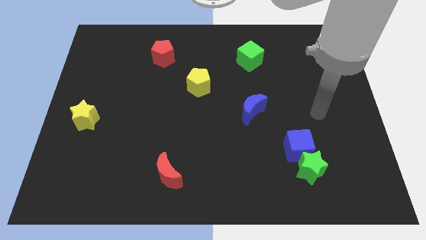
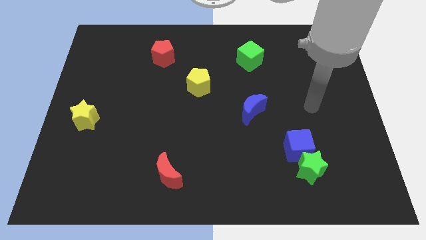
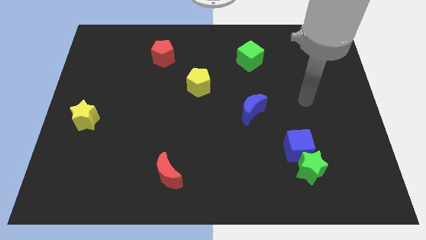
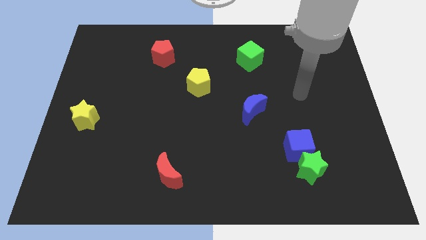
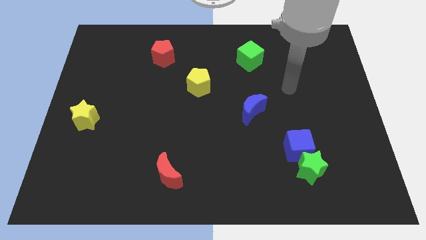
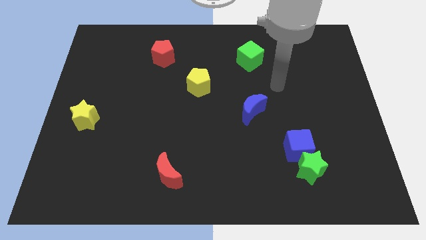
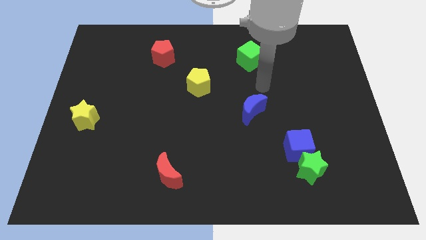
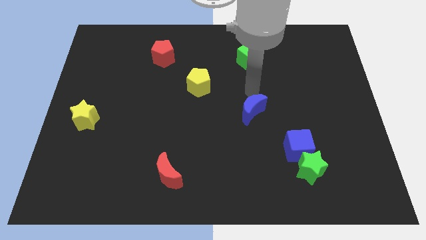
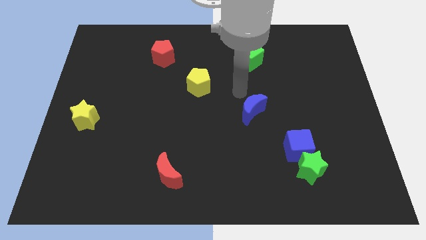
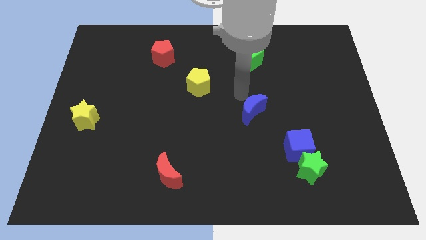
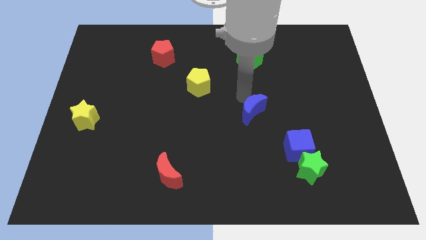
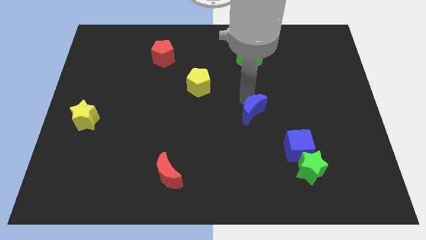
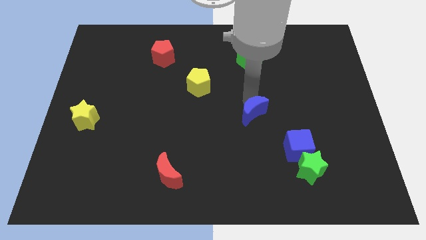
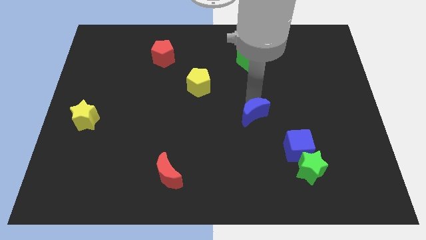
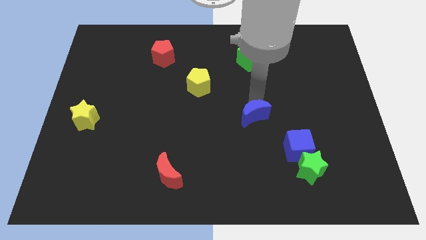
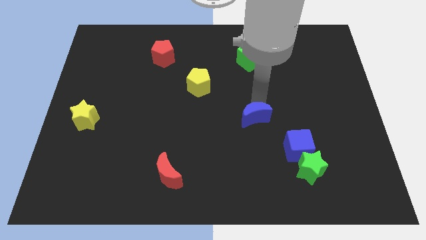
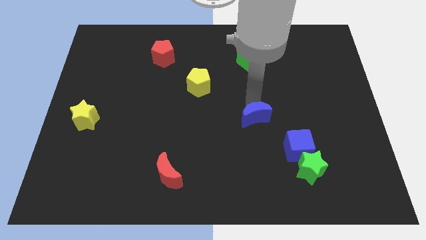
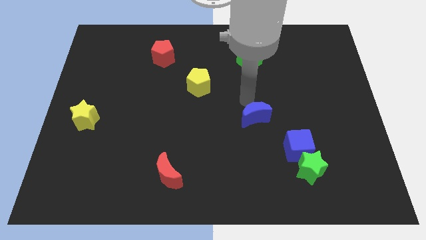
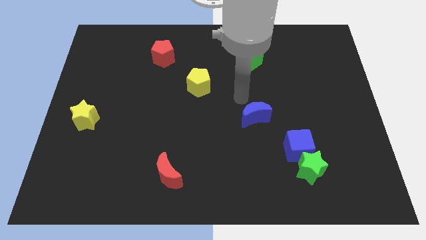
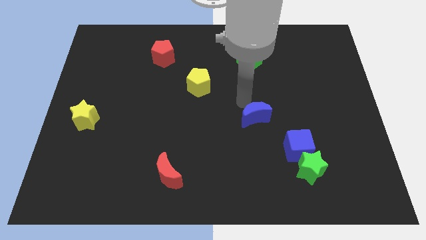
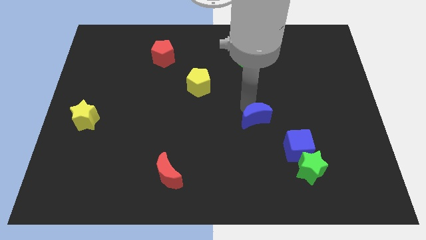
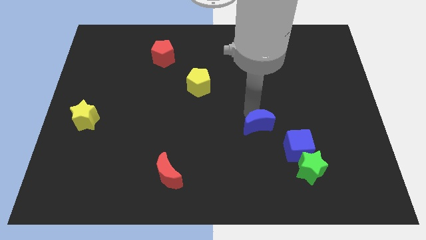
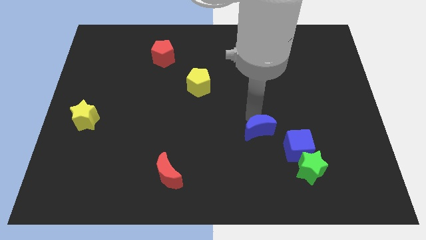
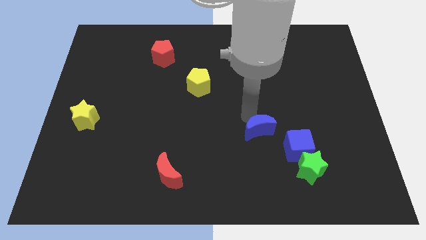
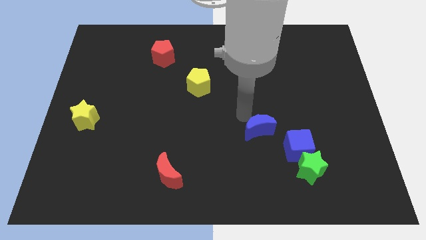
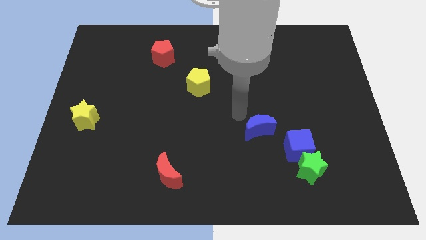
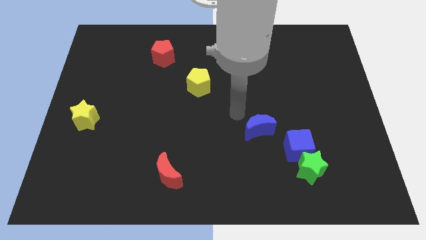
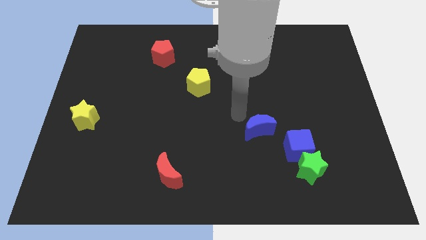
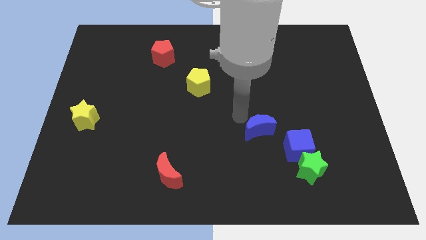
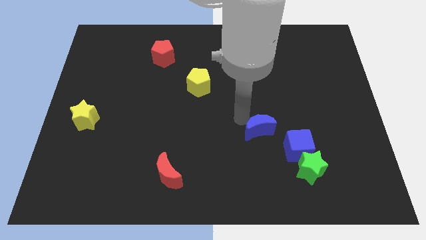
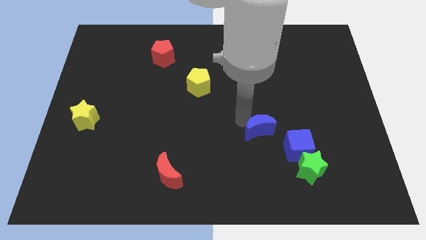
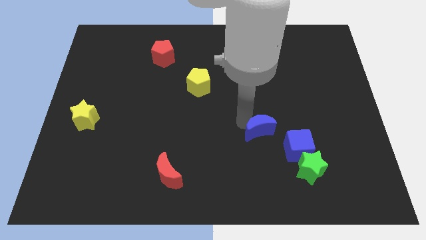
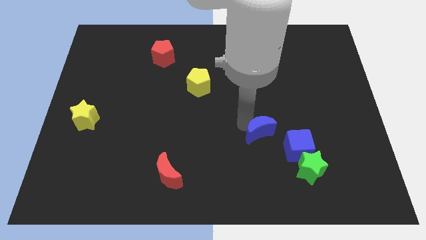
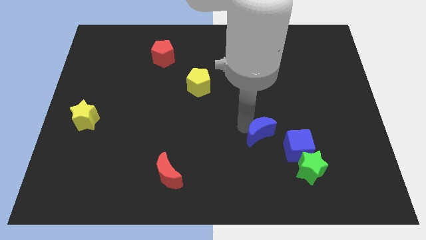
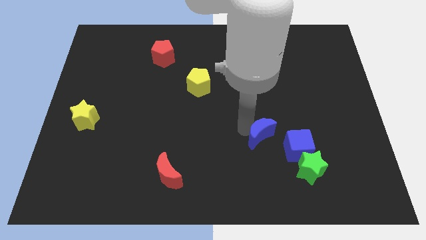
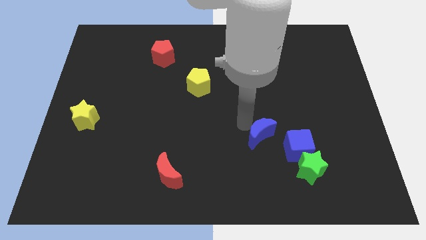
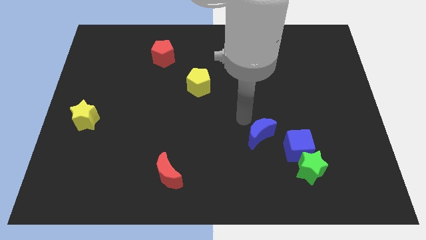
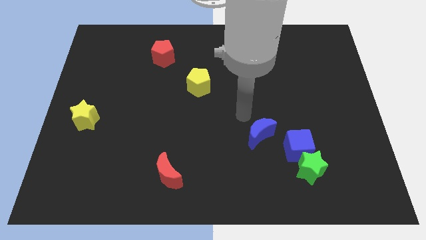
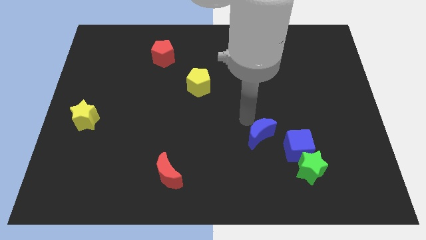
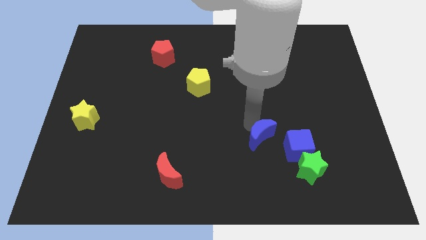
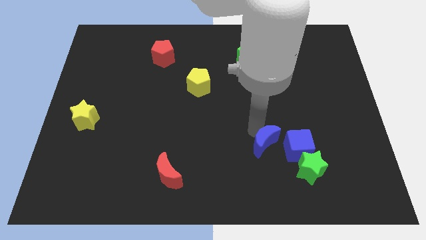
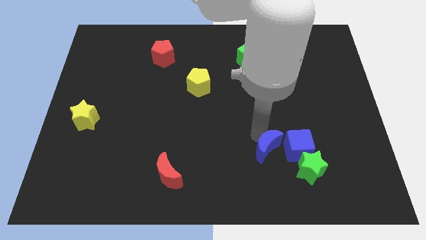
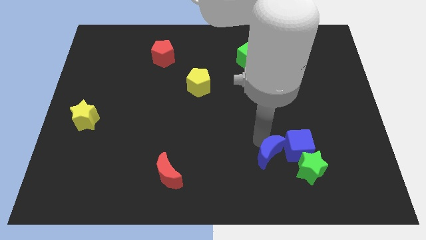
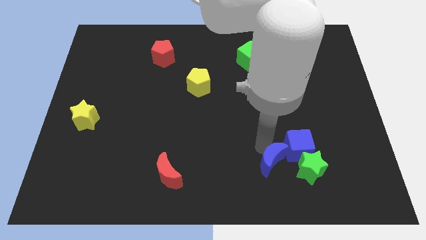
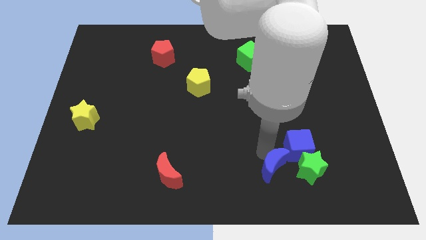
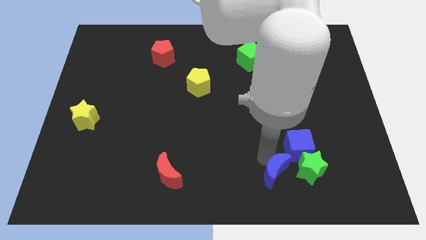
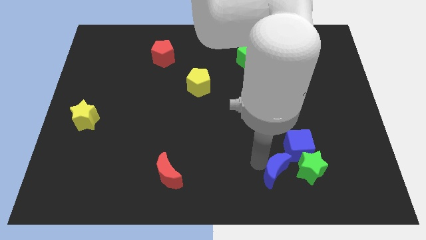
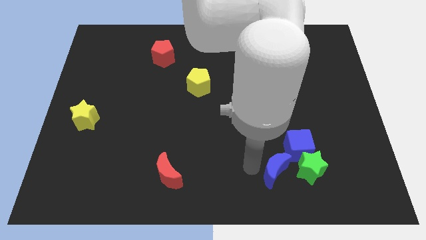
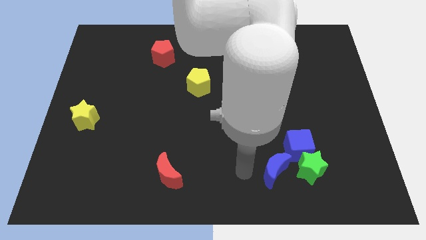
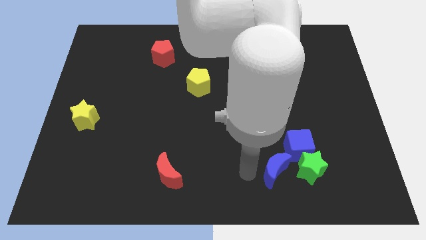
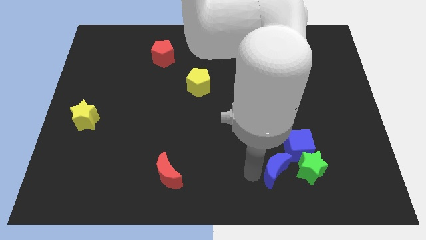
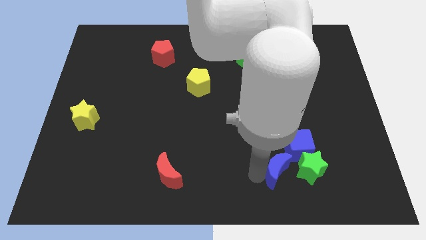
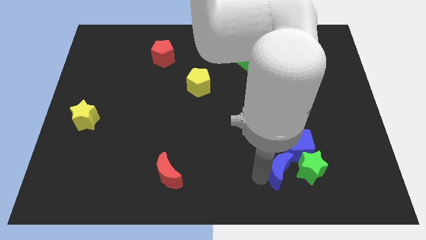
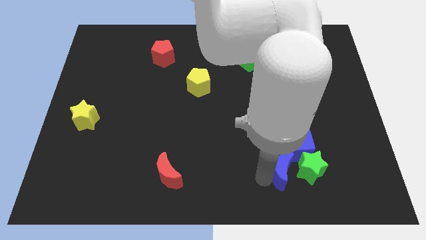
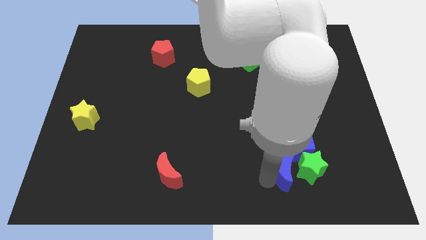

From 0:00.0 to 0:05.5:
put the blue moon to the green star

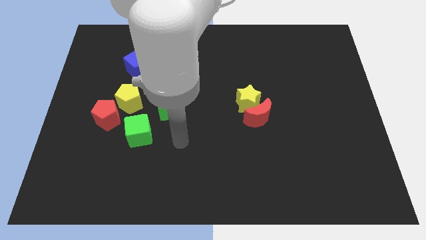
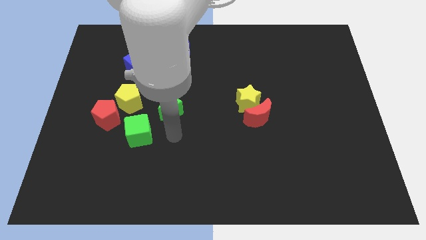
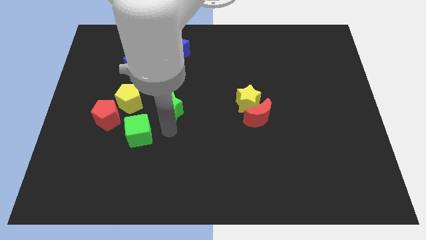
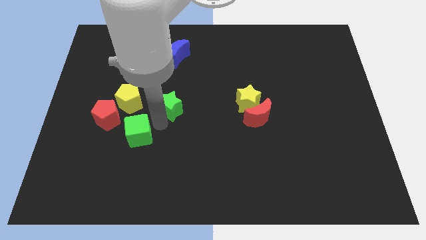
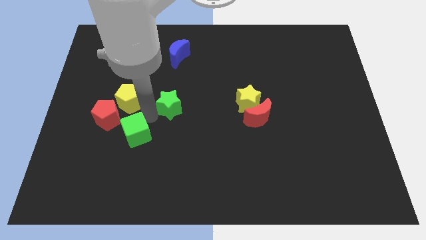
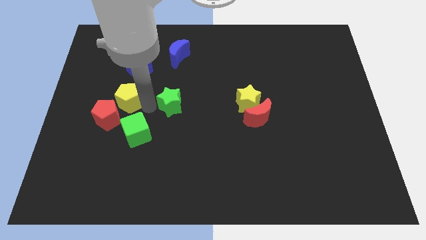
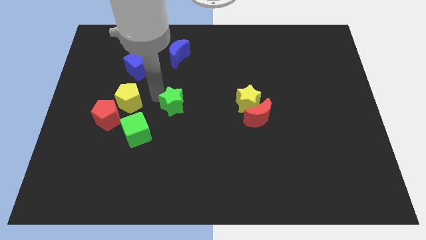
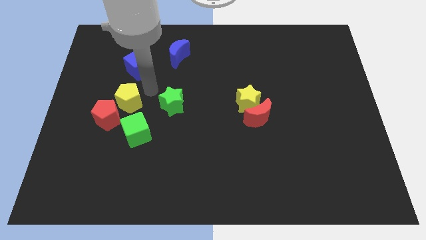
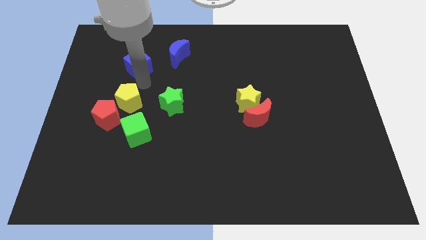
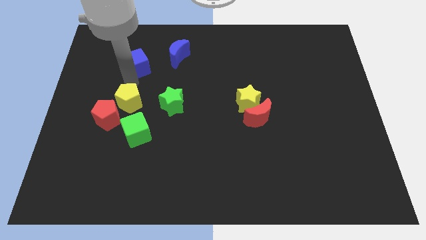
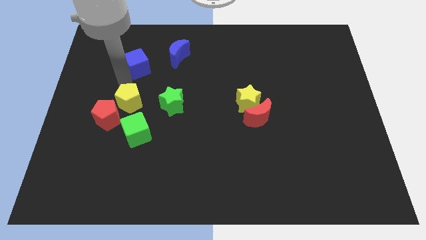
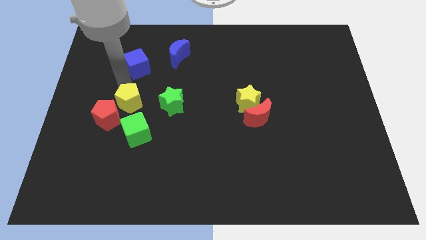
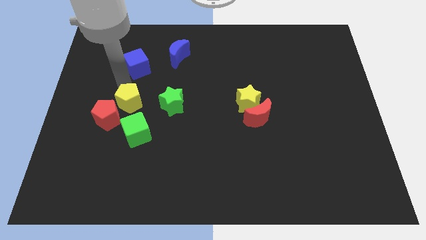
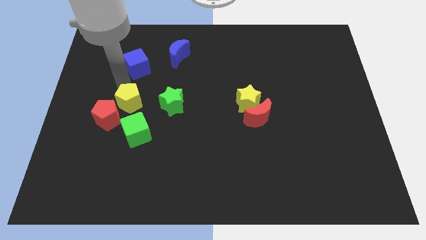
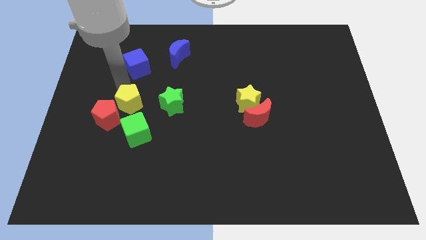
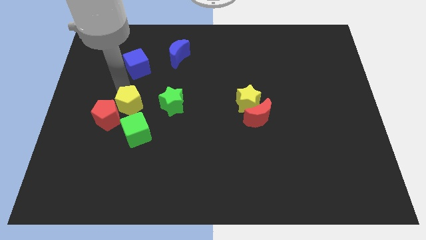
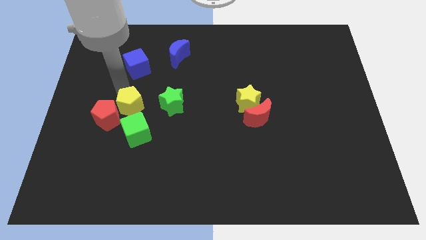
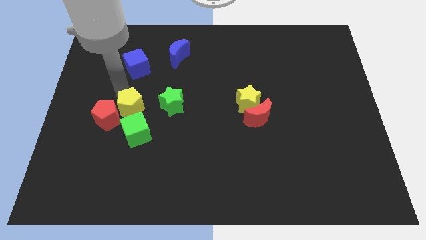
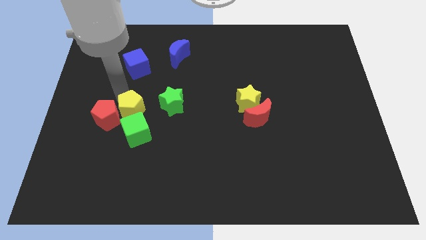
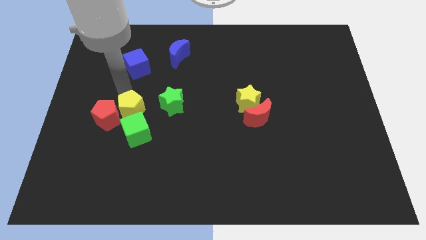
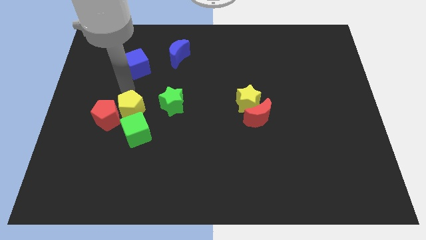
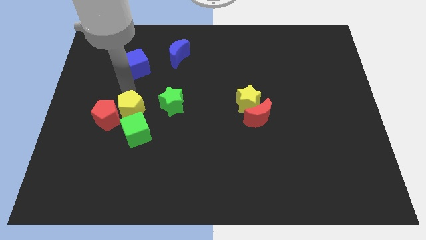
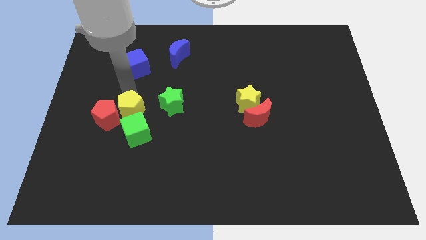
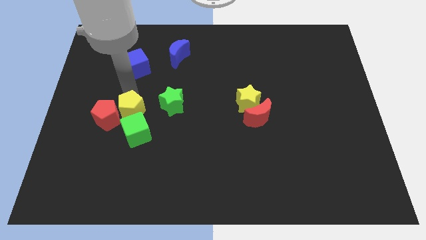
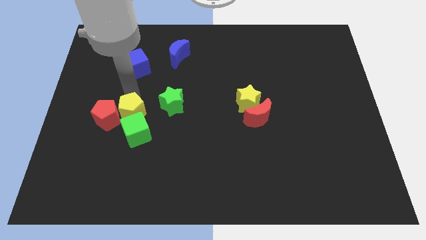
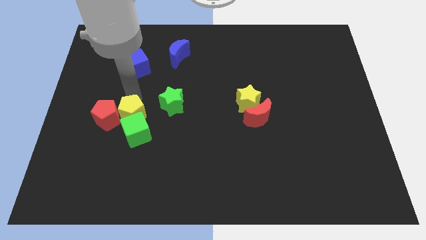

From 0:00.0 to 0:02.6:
move the yellow pentagon next to the green cube
